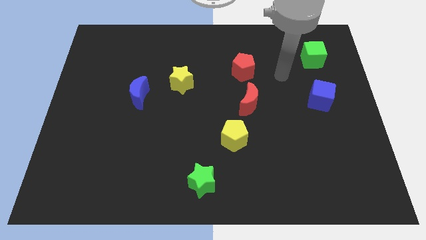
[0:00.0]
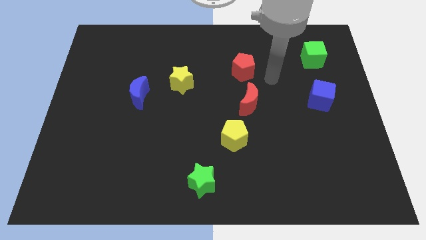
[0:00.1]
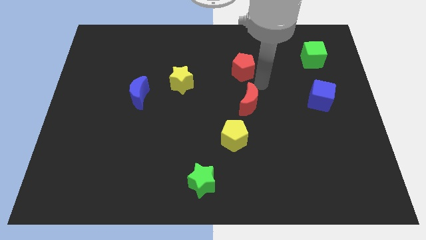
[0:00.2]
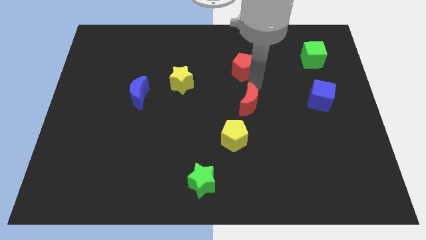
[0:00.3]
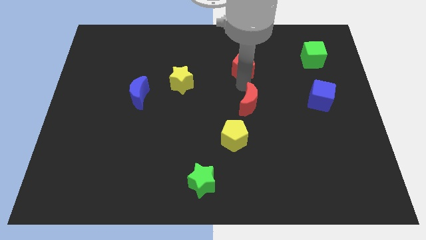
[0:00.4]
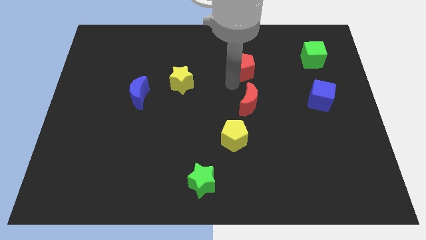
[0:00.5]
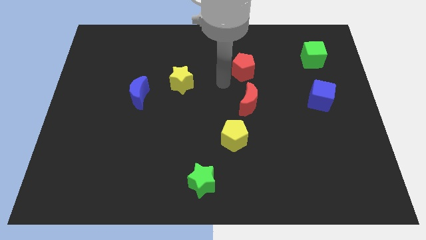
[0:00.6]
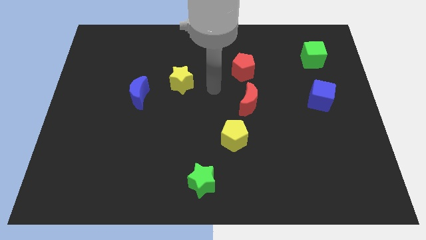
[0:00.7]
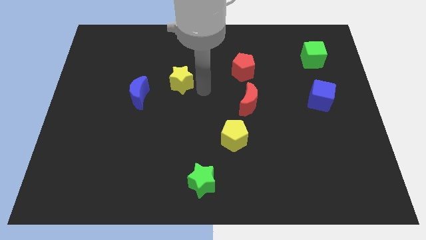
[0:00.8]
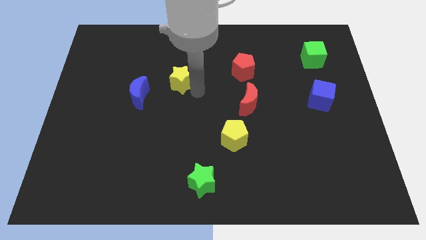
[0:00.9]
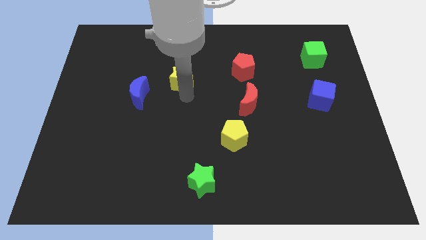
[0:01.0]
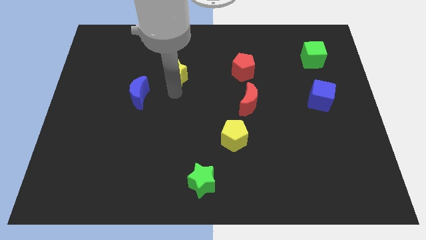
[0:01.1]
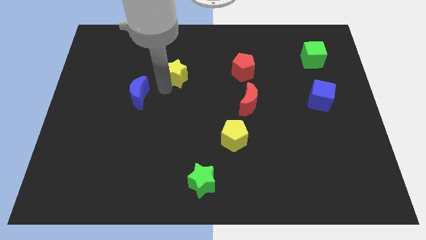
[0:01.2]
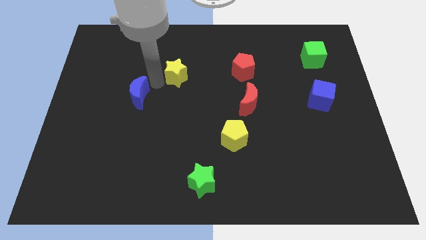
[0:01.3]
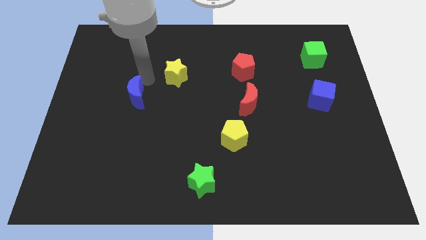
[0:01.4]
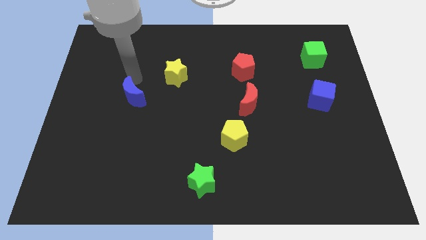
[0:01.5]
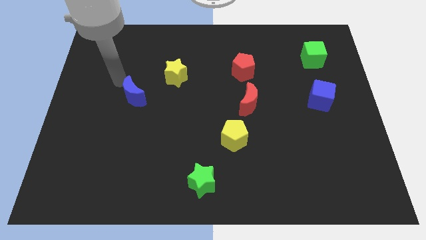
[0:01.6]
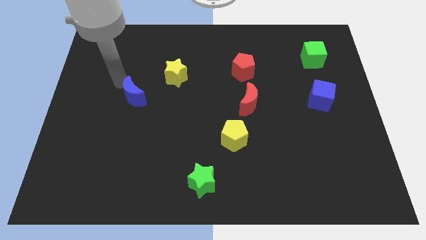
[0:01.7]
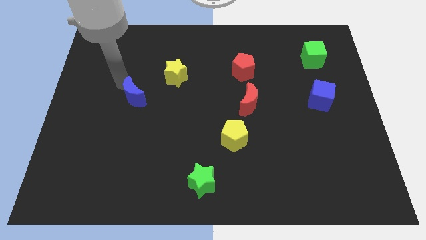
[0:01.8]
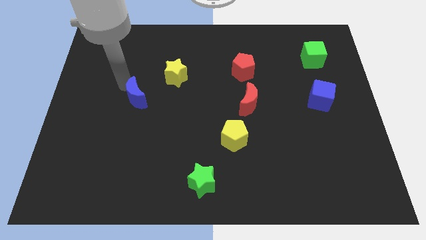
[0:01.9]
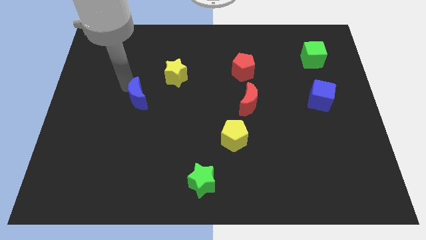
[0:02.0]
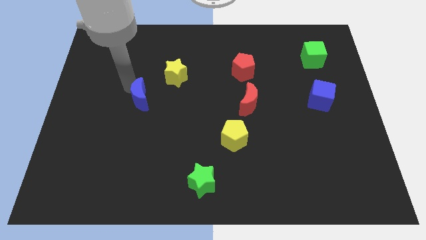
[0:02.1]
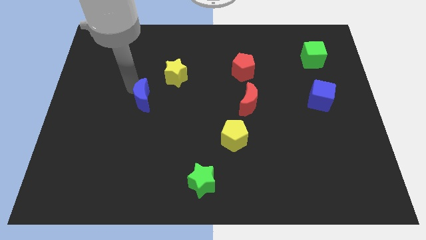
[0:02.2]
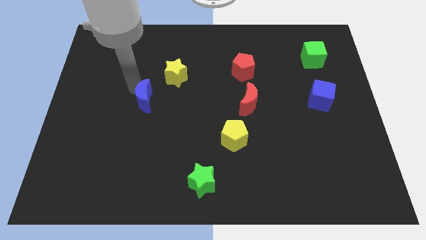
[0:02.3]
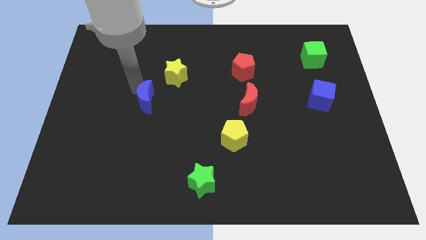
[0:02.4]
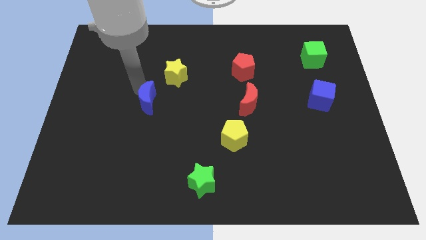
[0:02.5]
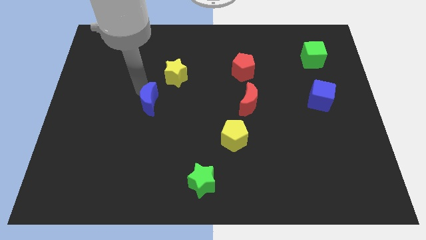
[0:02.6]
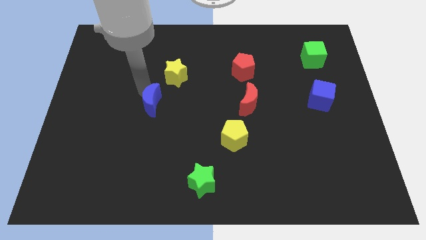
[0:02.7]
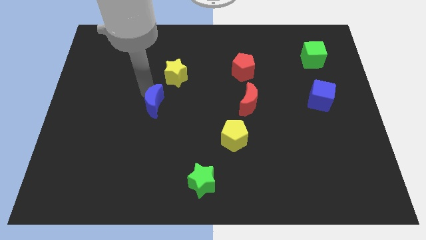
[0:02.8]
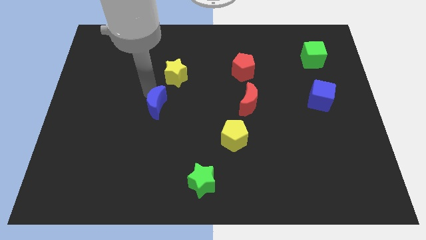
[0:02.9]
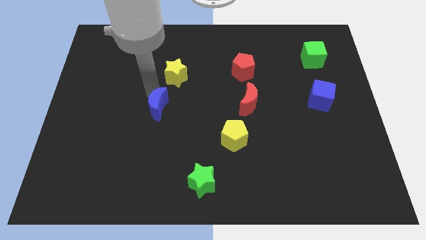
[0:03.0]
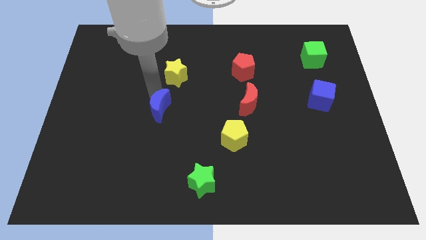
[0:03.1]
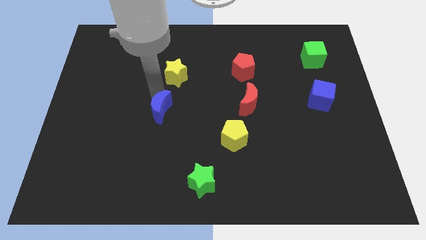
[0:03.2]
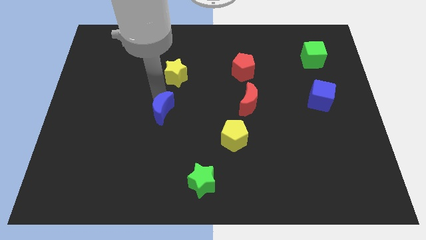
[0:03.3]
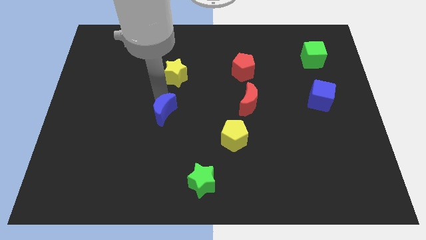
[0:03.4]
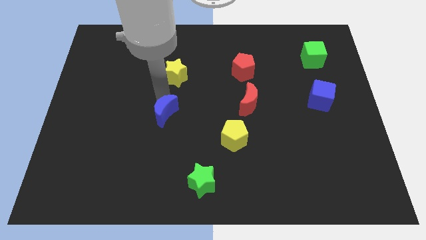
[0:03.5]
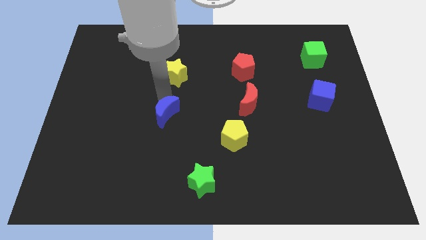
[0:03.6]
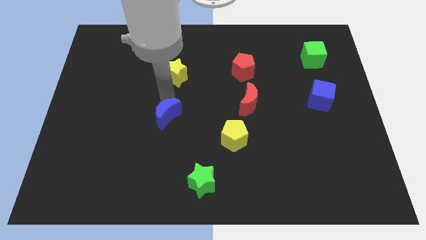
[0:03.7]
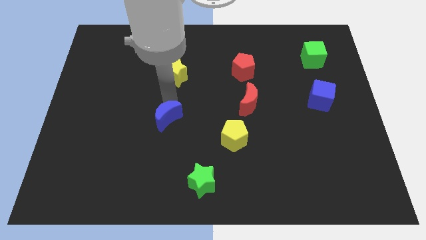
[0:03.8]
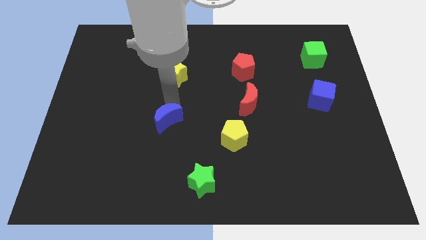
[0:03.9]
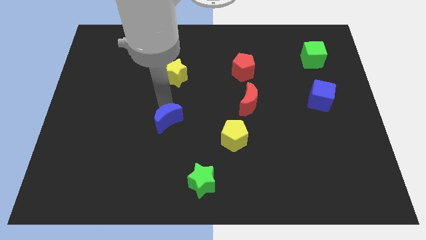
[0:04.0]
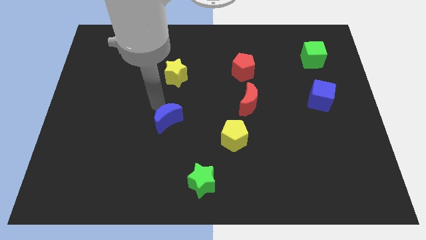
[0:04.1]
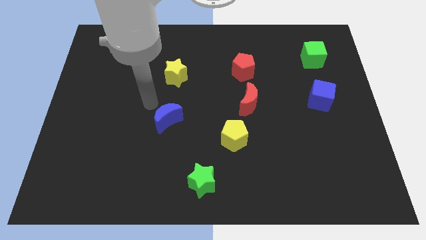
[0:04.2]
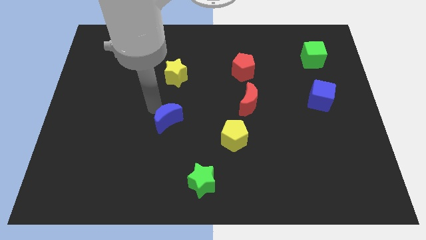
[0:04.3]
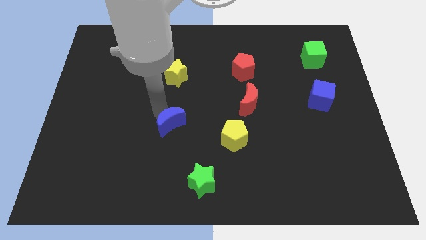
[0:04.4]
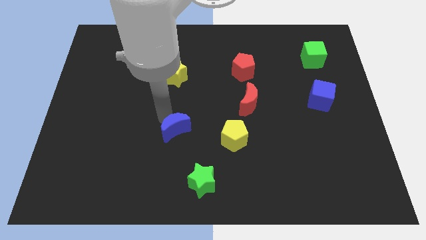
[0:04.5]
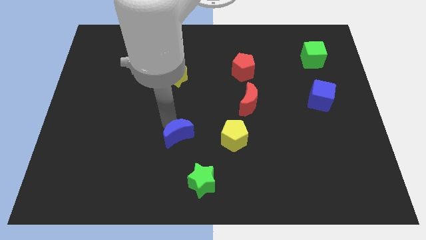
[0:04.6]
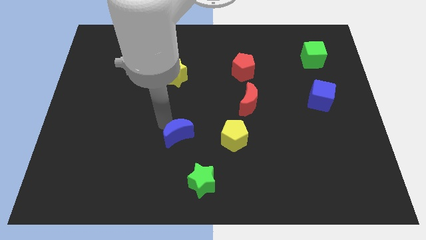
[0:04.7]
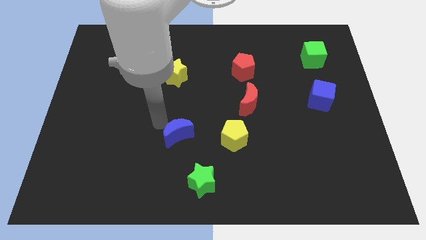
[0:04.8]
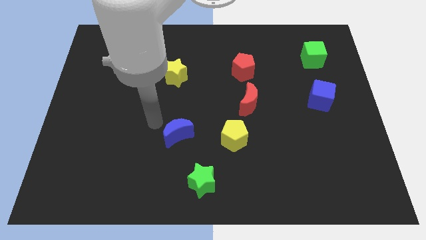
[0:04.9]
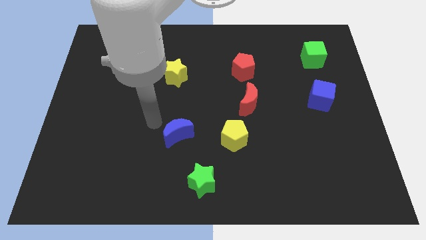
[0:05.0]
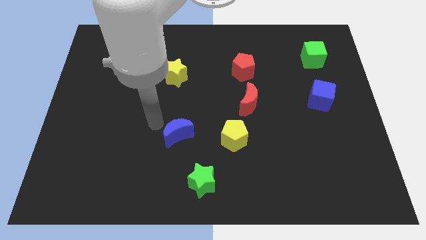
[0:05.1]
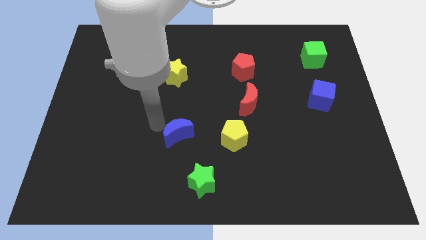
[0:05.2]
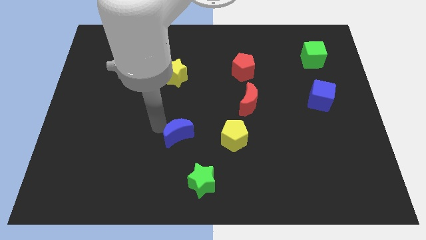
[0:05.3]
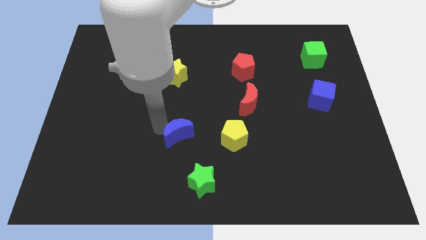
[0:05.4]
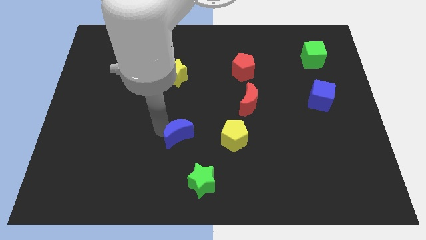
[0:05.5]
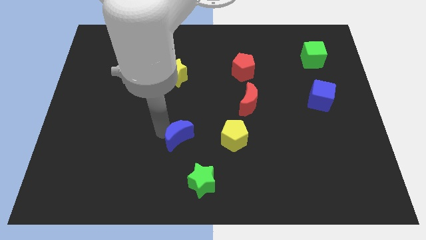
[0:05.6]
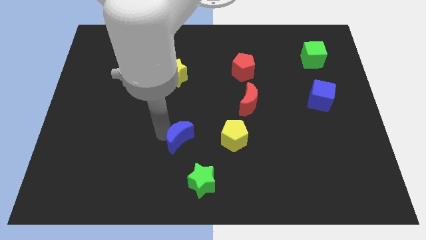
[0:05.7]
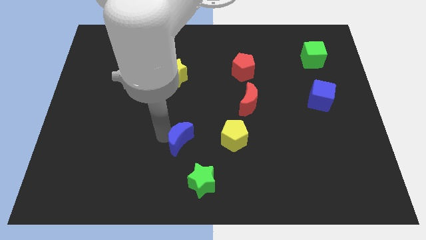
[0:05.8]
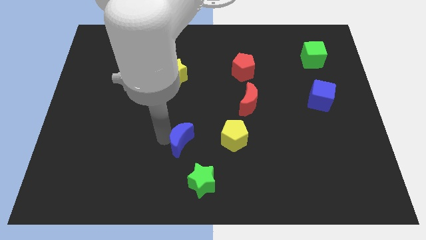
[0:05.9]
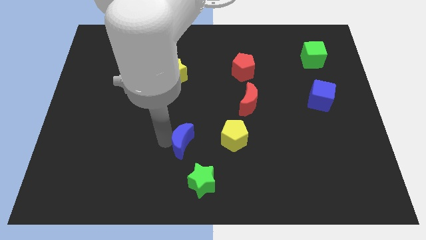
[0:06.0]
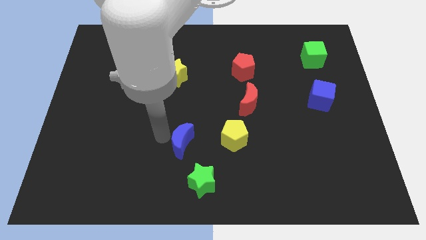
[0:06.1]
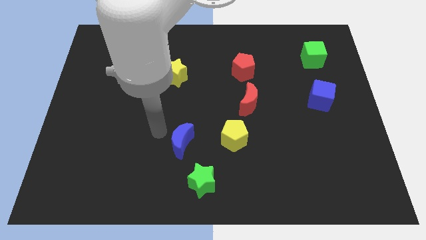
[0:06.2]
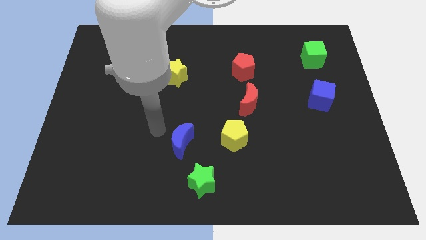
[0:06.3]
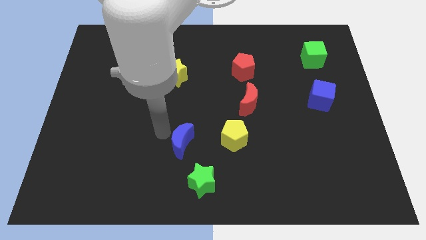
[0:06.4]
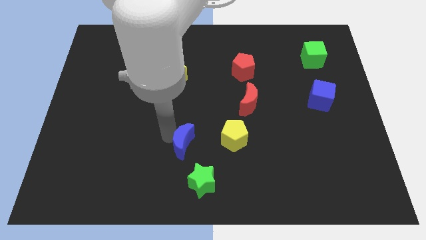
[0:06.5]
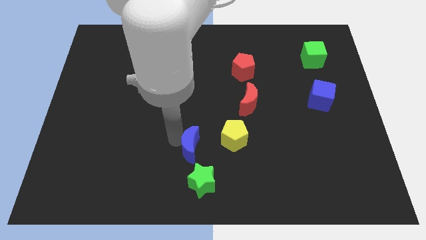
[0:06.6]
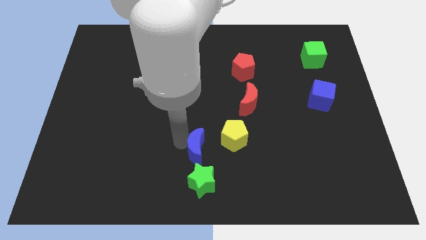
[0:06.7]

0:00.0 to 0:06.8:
push the blue moon diagonally downwards and to the right

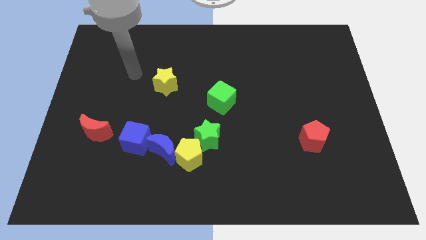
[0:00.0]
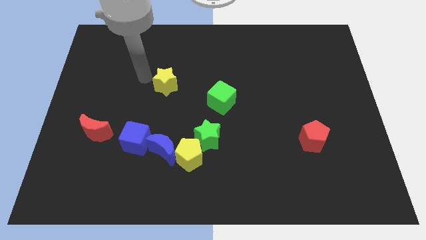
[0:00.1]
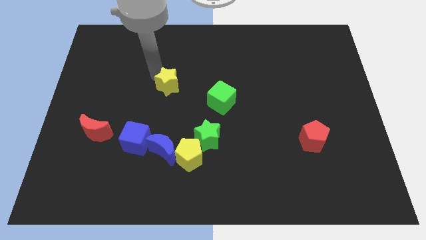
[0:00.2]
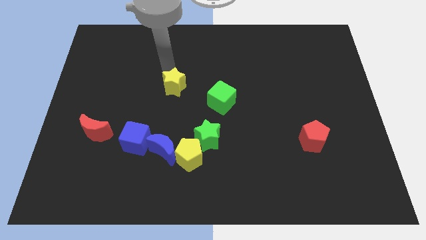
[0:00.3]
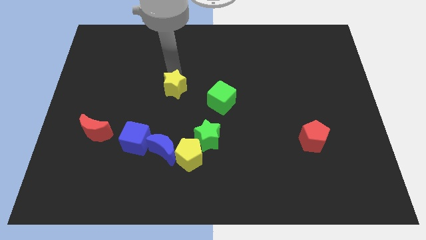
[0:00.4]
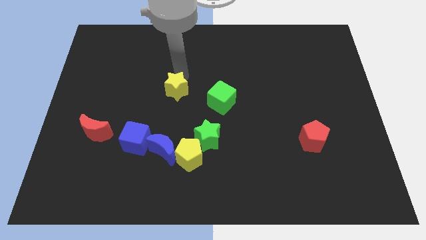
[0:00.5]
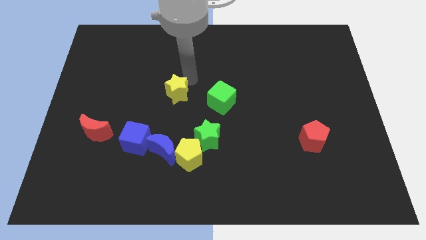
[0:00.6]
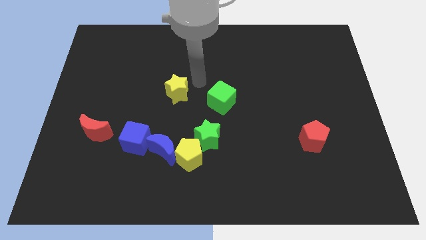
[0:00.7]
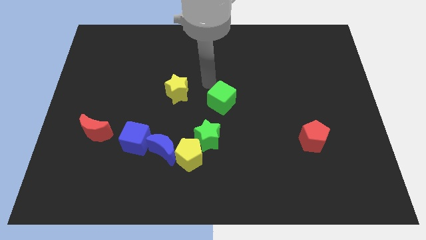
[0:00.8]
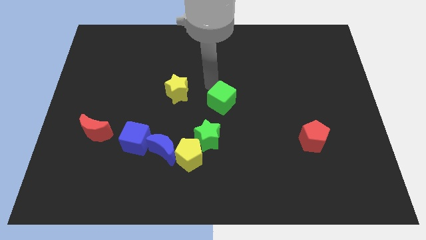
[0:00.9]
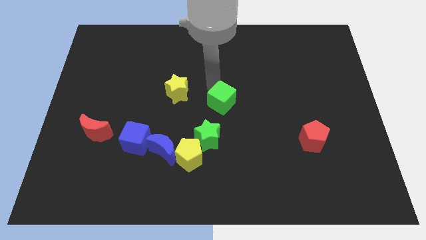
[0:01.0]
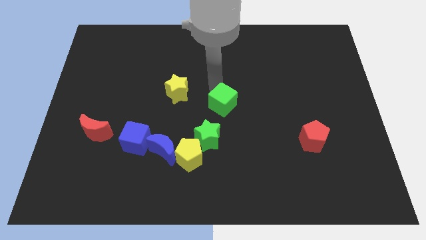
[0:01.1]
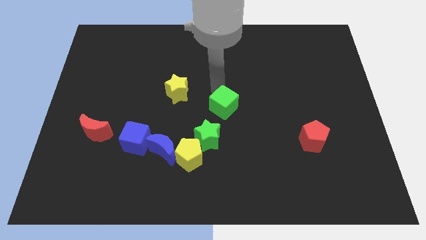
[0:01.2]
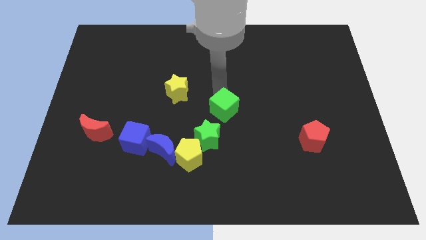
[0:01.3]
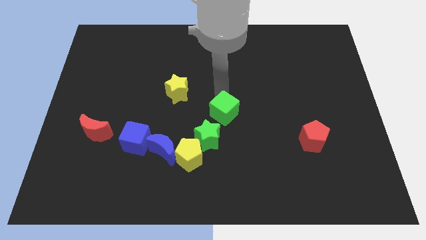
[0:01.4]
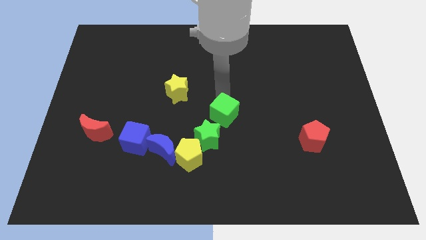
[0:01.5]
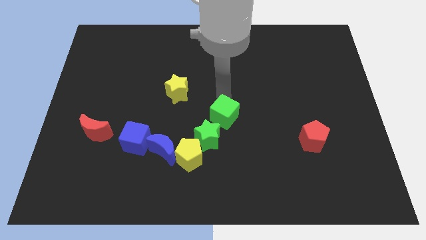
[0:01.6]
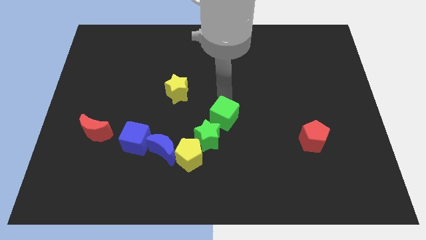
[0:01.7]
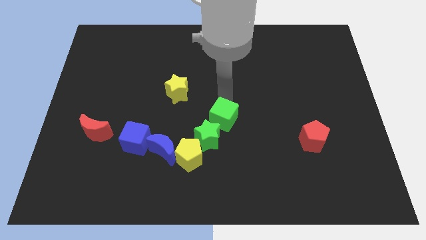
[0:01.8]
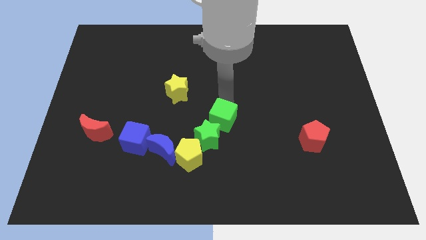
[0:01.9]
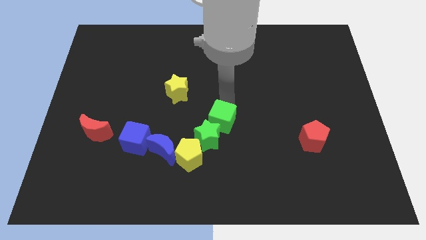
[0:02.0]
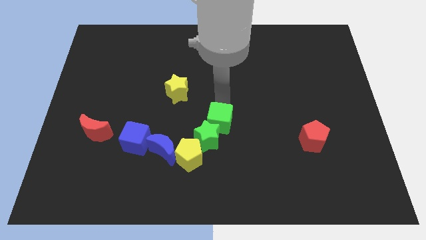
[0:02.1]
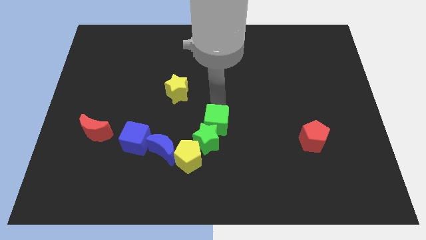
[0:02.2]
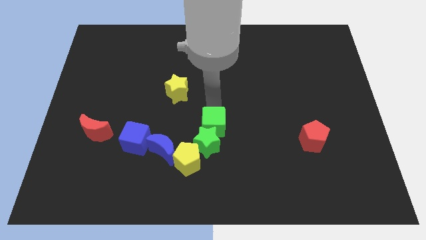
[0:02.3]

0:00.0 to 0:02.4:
slightly move the green cube down
